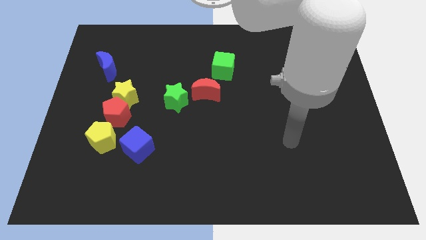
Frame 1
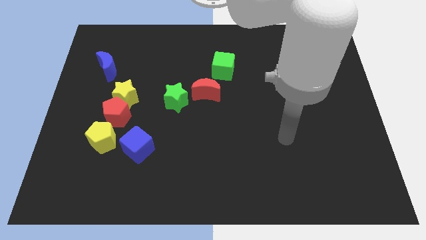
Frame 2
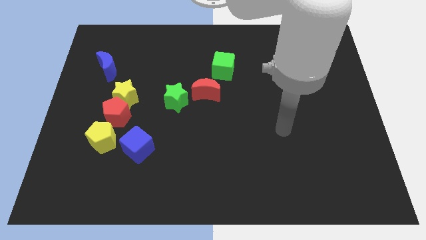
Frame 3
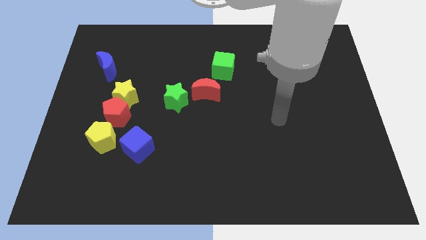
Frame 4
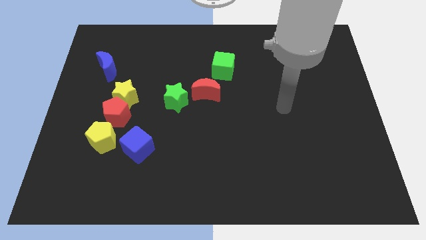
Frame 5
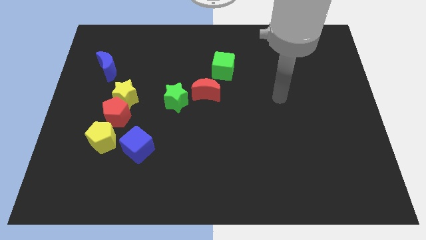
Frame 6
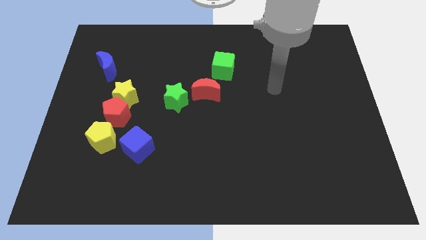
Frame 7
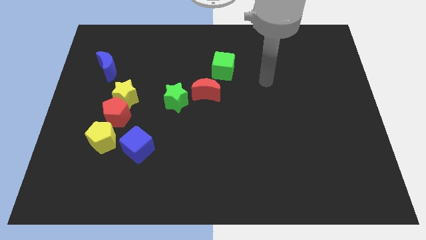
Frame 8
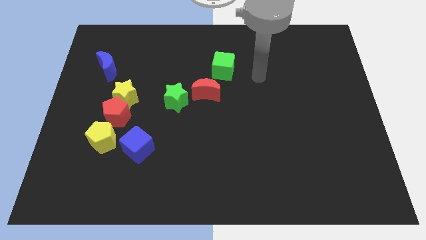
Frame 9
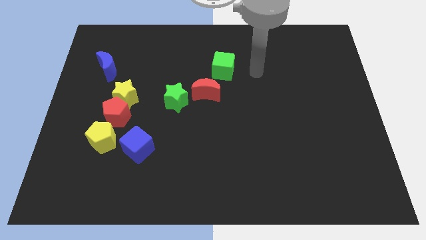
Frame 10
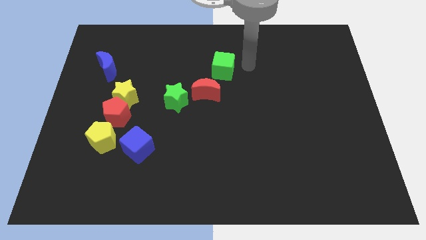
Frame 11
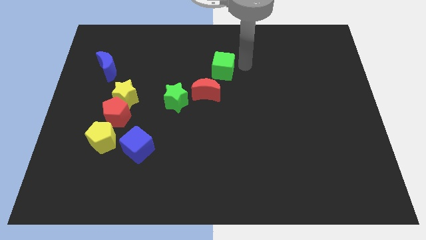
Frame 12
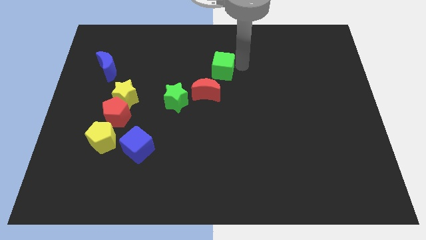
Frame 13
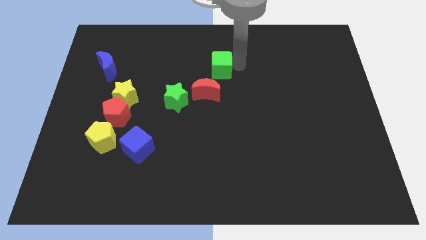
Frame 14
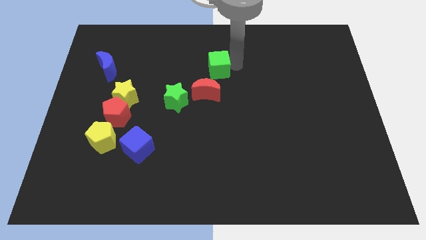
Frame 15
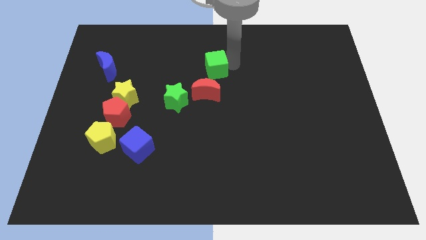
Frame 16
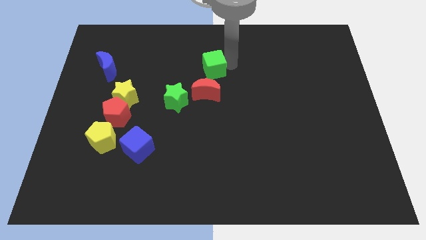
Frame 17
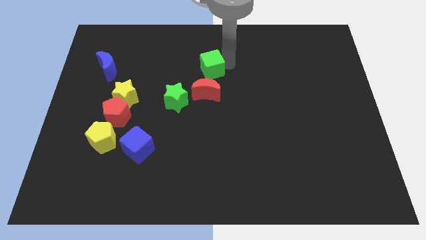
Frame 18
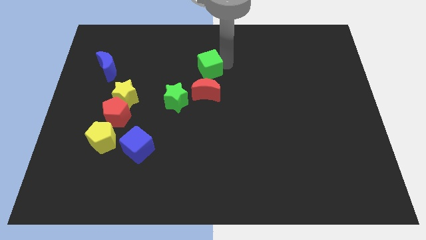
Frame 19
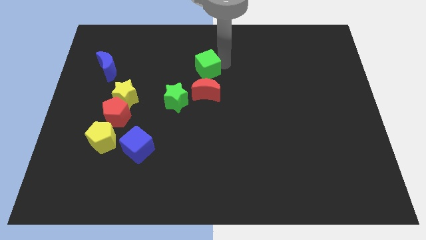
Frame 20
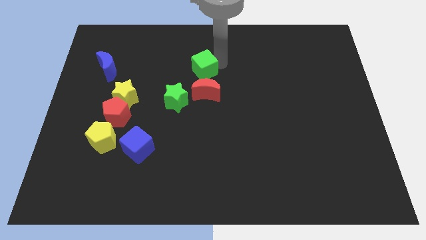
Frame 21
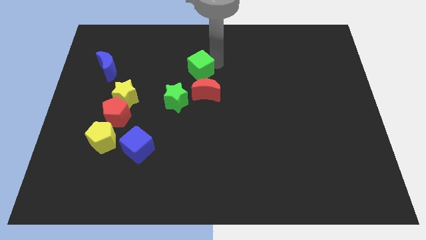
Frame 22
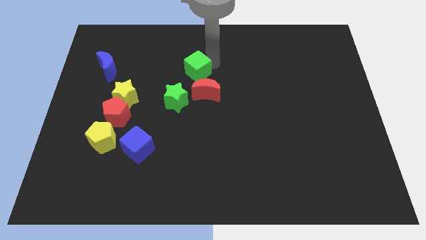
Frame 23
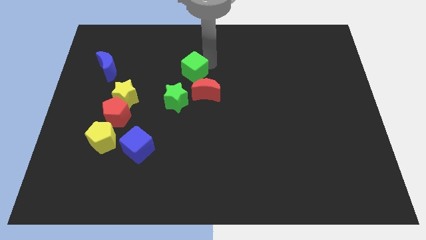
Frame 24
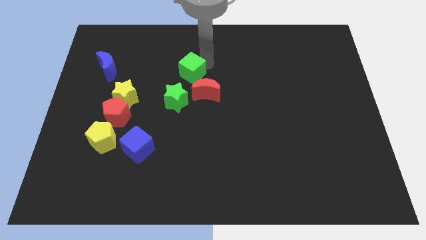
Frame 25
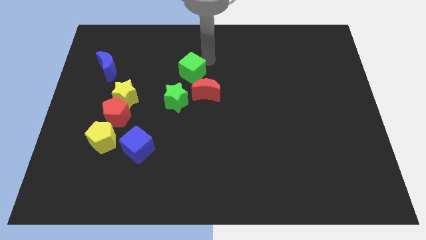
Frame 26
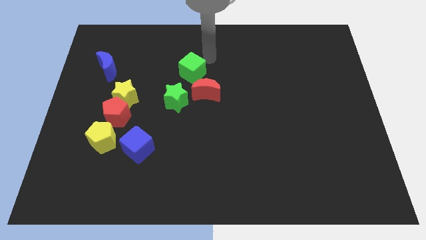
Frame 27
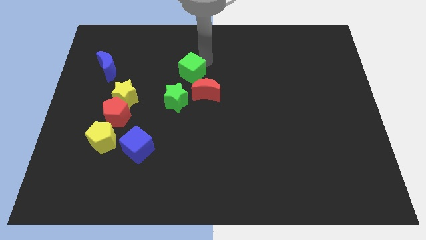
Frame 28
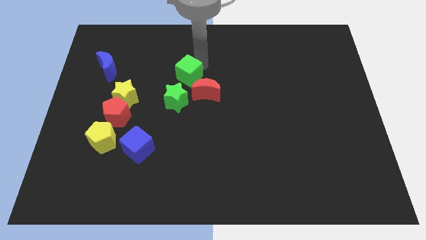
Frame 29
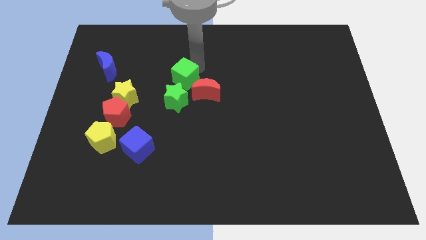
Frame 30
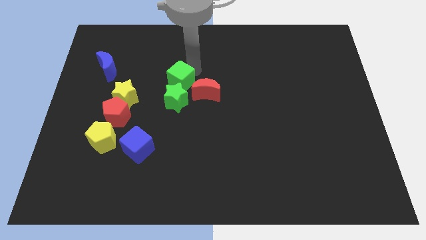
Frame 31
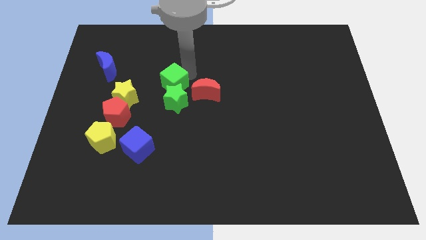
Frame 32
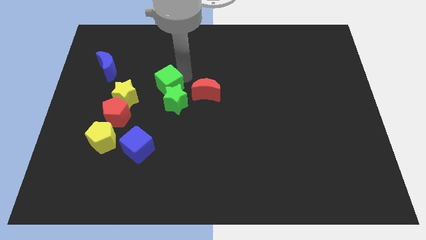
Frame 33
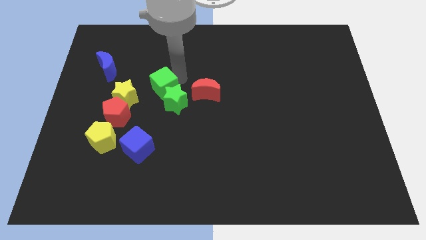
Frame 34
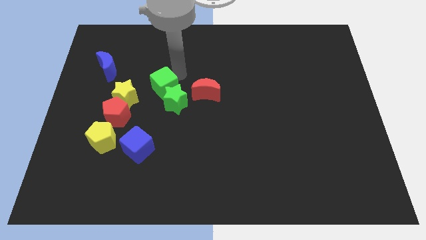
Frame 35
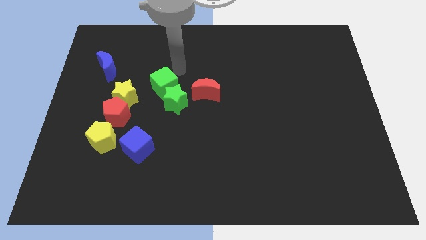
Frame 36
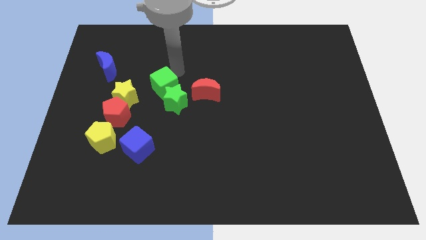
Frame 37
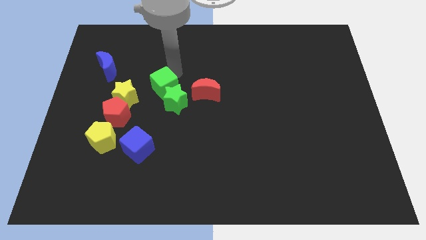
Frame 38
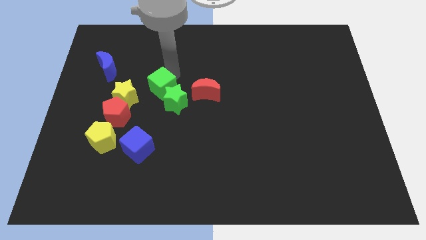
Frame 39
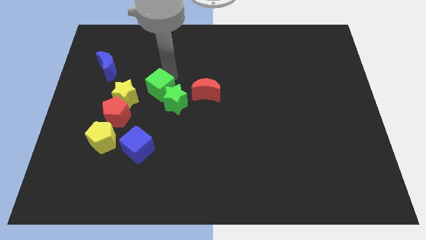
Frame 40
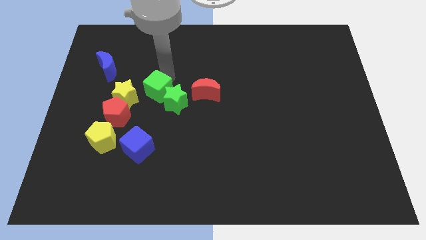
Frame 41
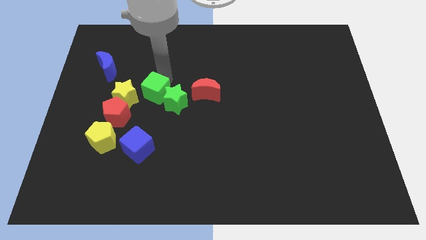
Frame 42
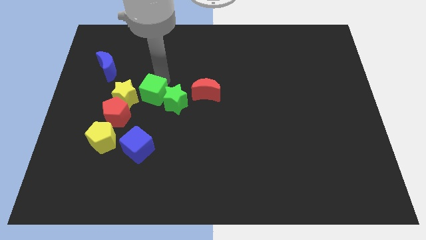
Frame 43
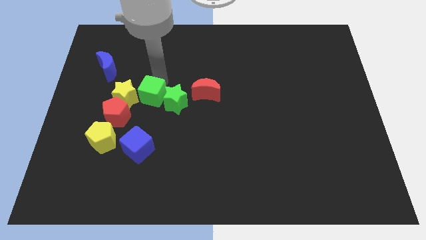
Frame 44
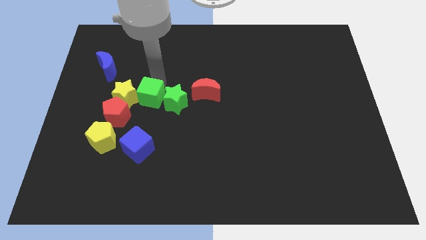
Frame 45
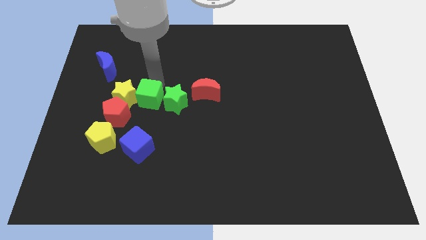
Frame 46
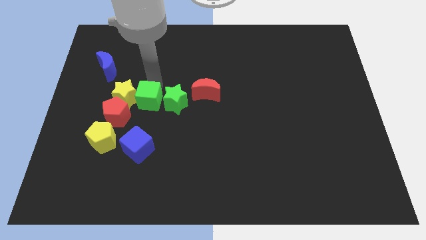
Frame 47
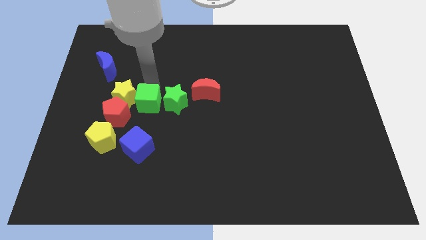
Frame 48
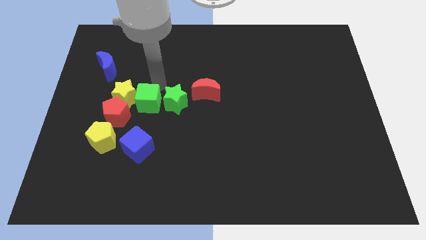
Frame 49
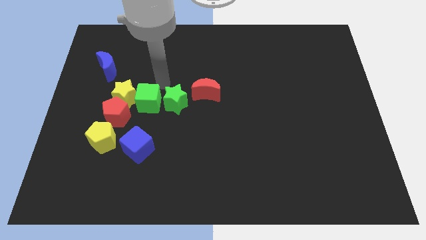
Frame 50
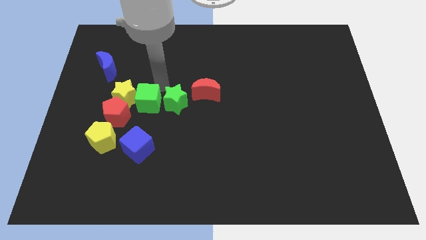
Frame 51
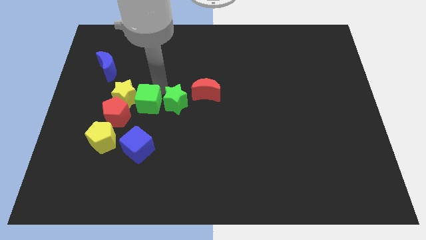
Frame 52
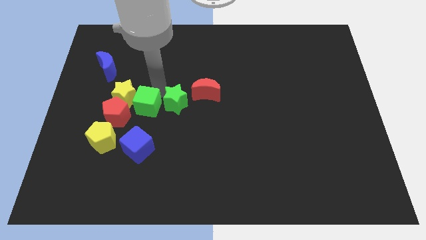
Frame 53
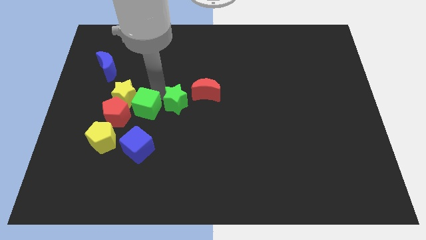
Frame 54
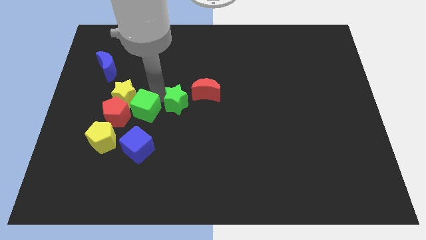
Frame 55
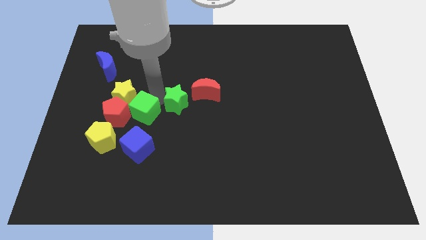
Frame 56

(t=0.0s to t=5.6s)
put the green cube to the bottom side of the yellow star

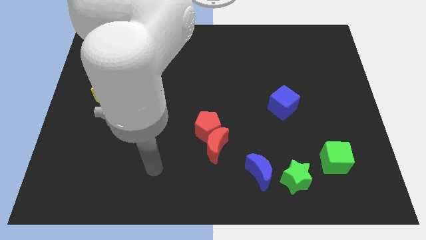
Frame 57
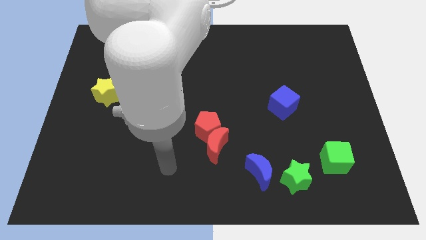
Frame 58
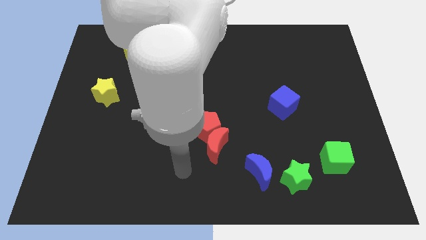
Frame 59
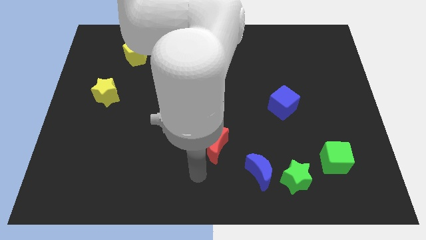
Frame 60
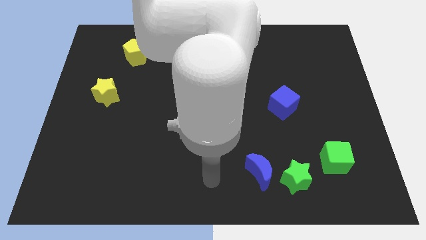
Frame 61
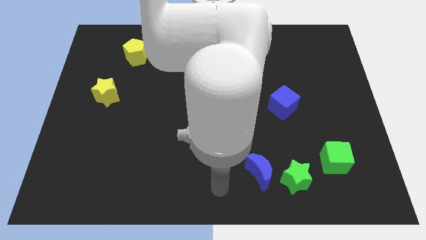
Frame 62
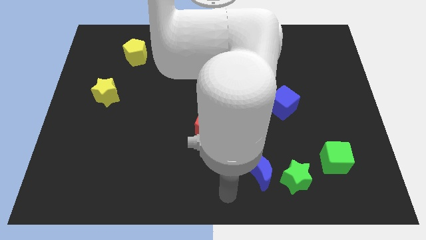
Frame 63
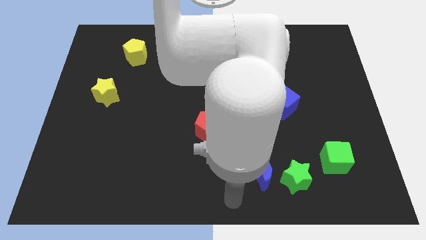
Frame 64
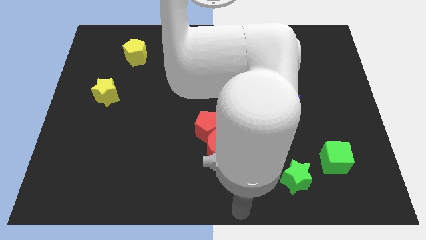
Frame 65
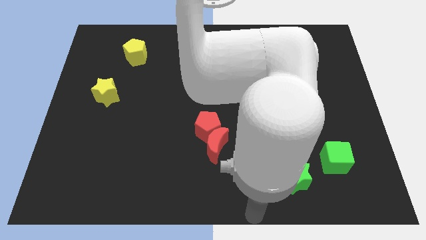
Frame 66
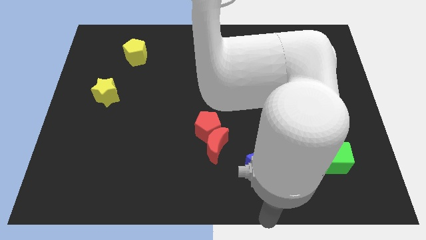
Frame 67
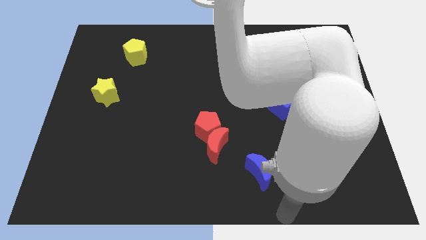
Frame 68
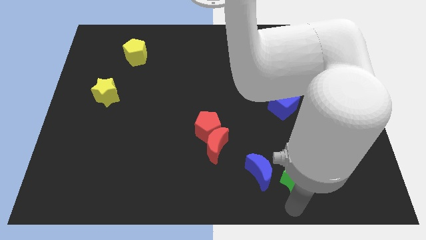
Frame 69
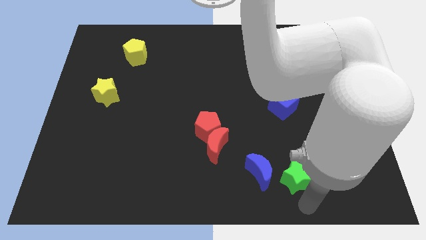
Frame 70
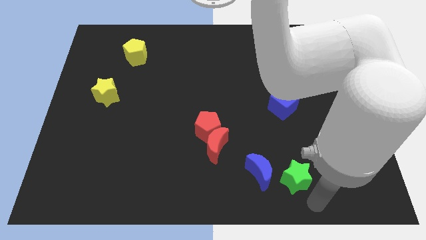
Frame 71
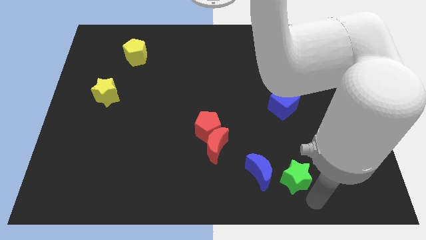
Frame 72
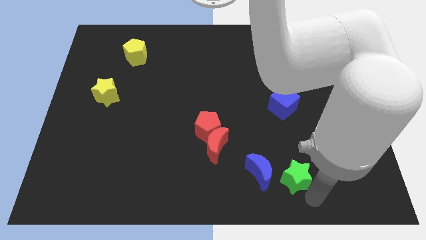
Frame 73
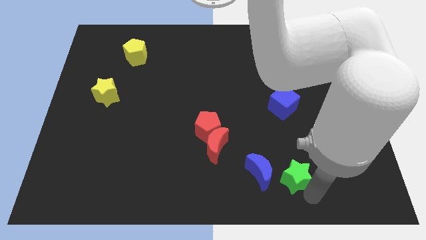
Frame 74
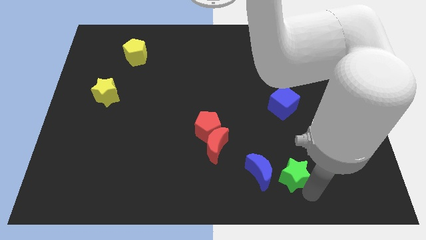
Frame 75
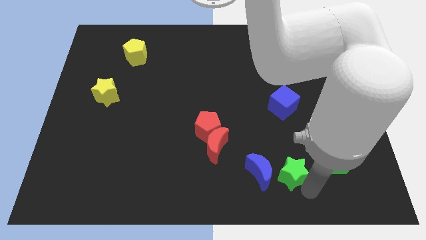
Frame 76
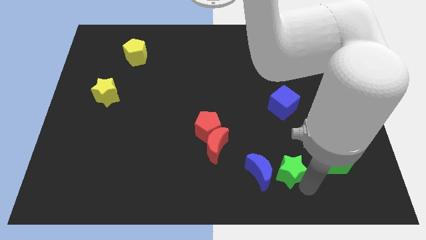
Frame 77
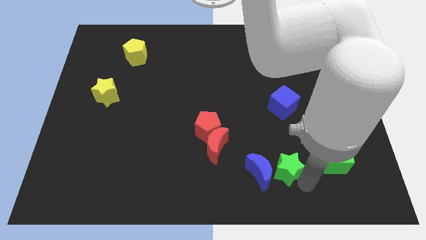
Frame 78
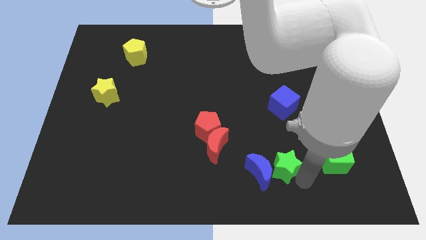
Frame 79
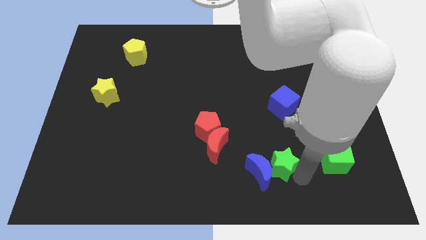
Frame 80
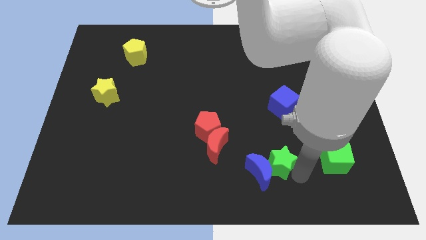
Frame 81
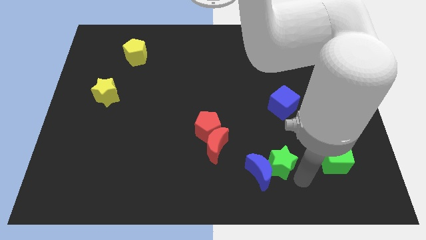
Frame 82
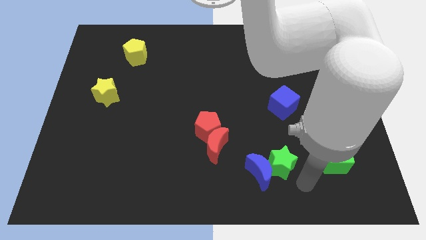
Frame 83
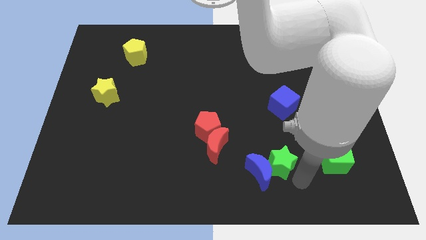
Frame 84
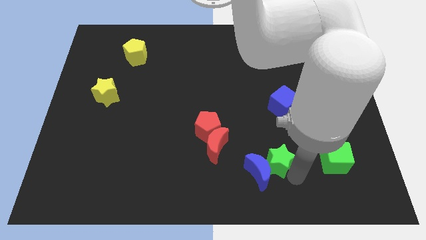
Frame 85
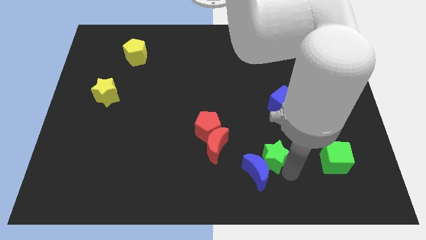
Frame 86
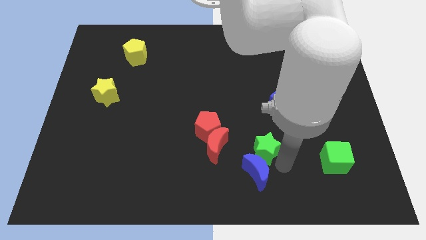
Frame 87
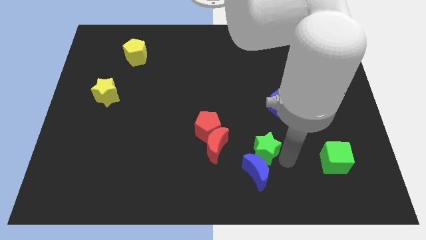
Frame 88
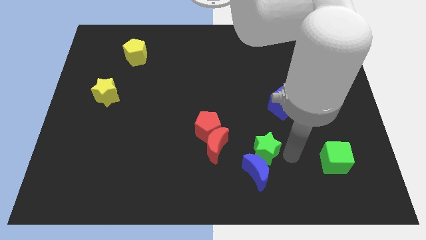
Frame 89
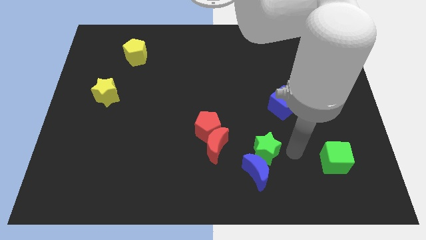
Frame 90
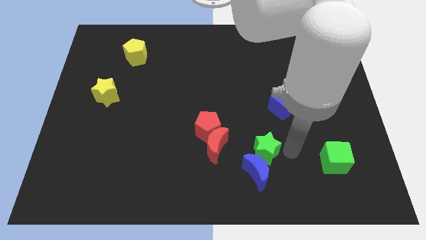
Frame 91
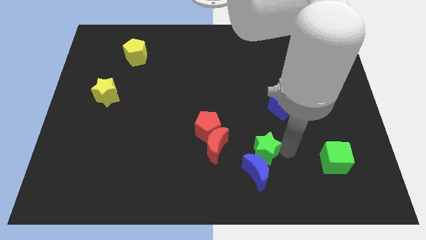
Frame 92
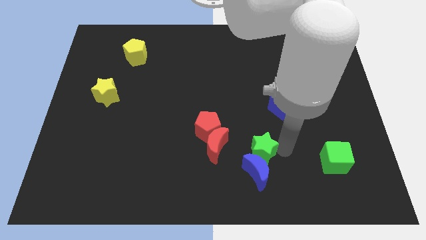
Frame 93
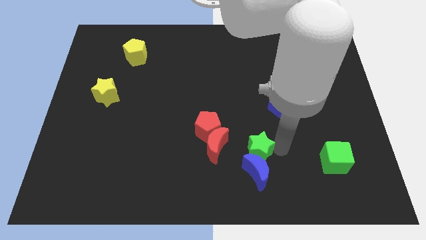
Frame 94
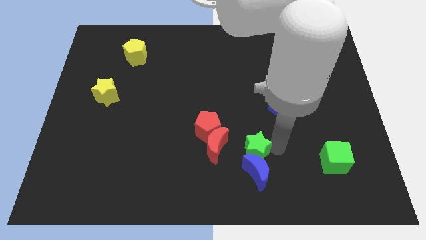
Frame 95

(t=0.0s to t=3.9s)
move the green star to the bottom right side of the red pentagon
